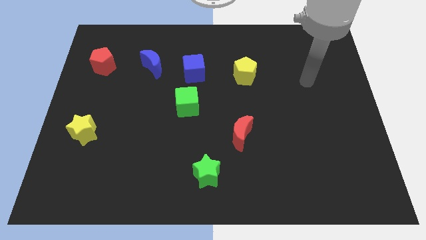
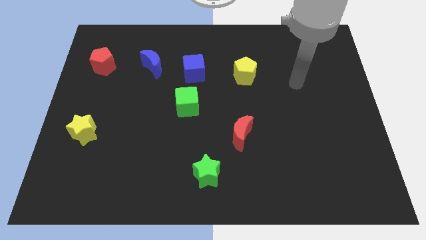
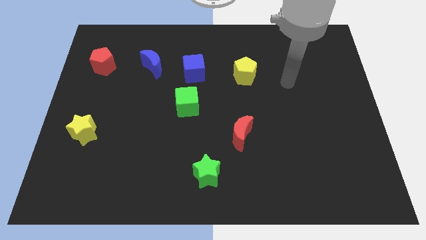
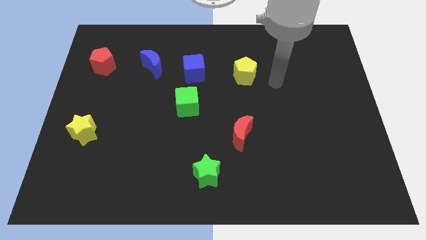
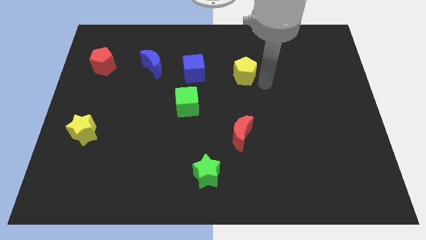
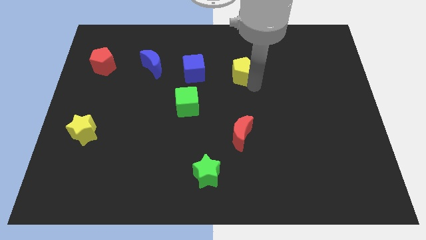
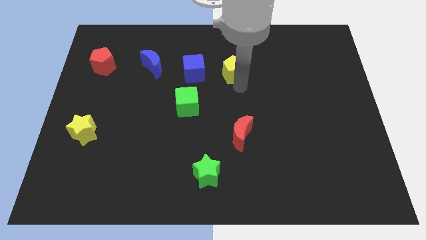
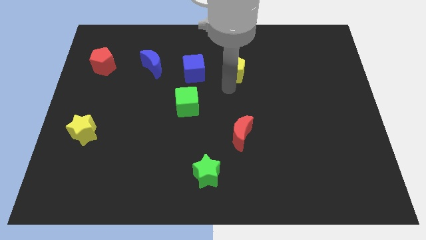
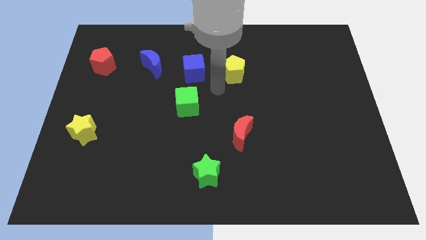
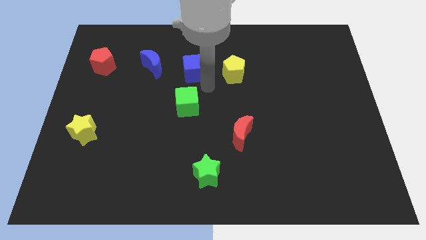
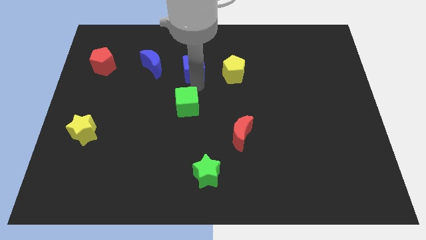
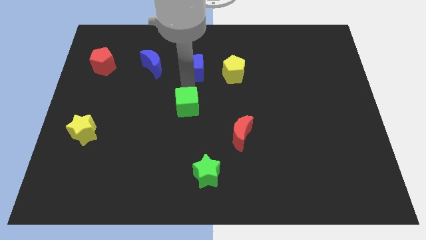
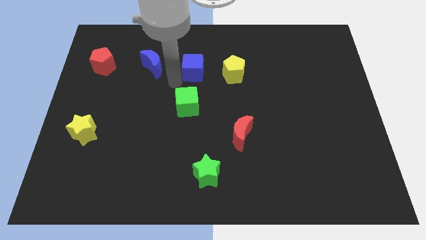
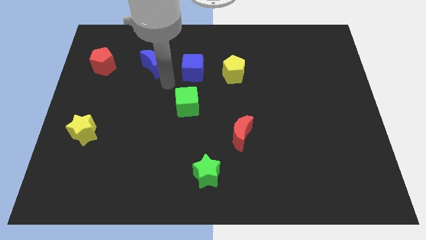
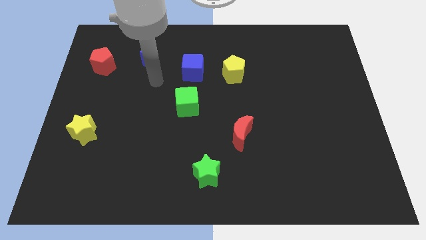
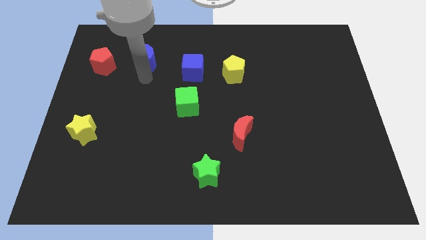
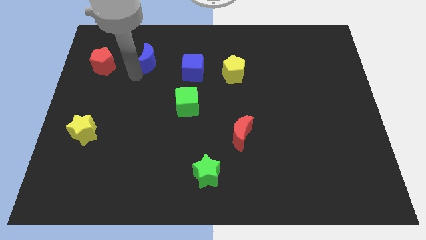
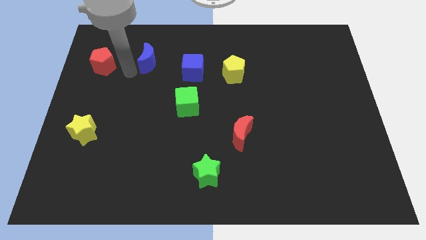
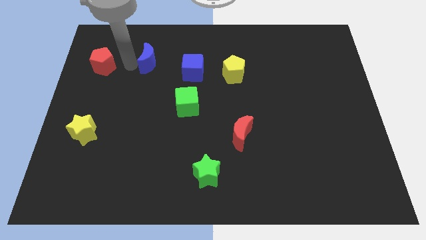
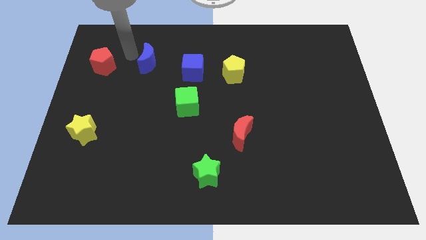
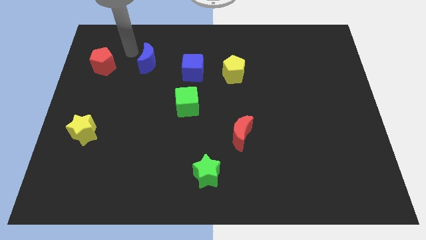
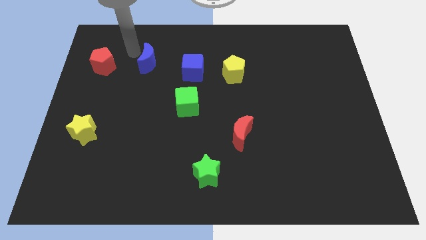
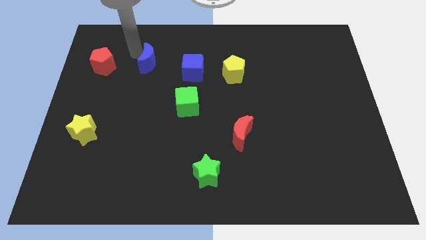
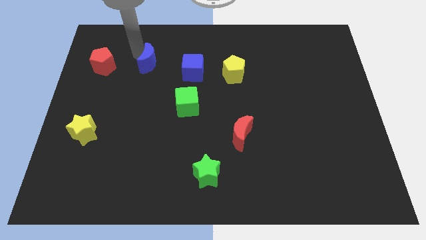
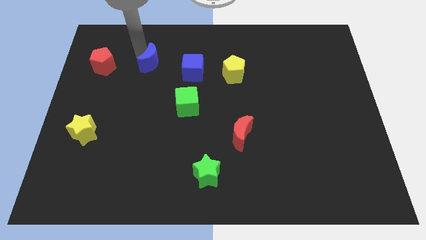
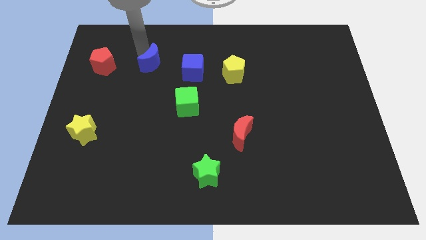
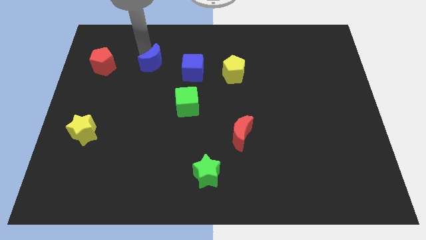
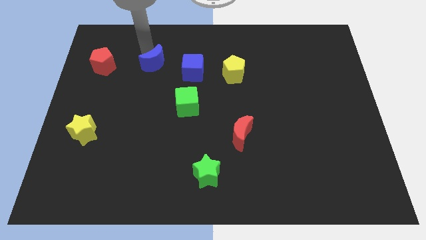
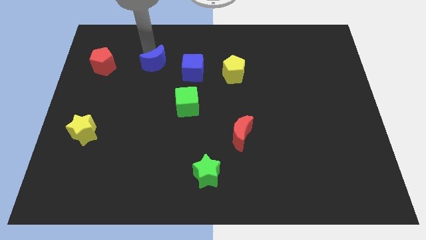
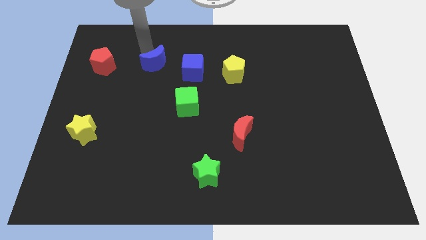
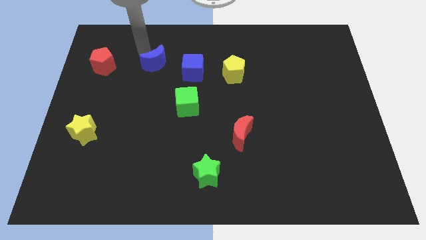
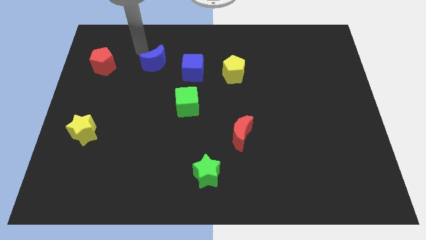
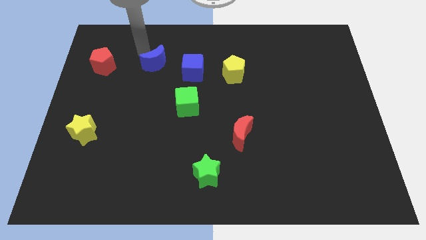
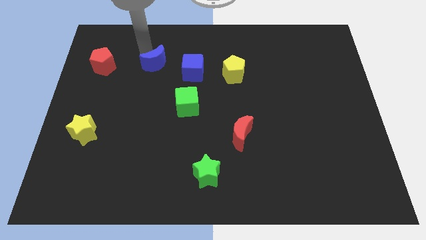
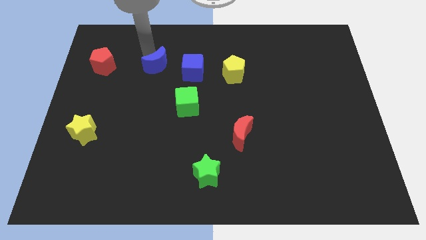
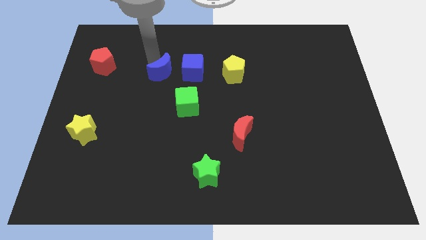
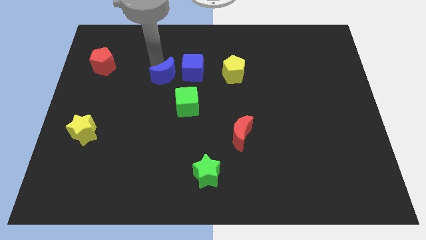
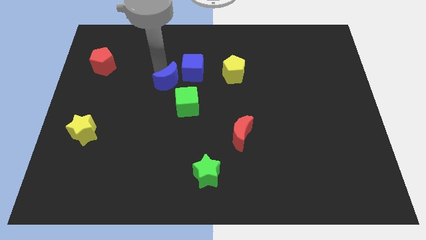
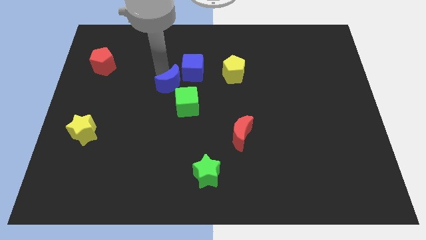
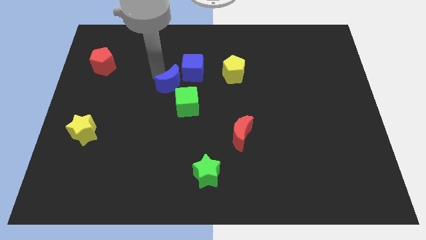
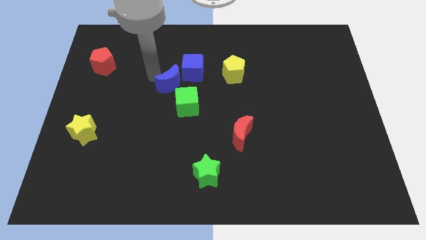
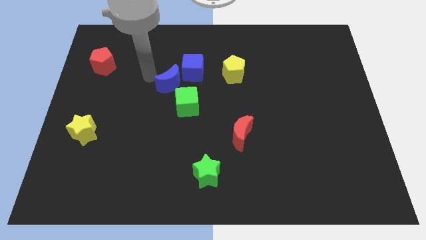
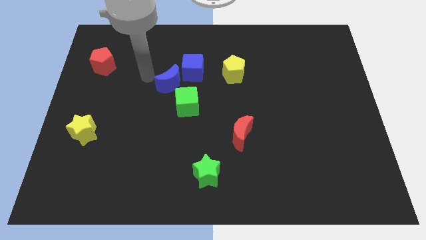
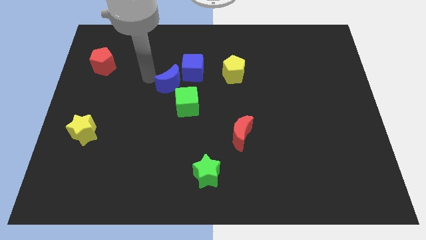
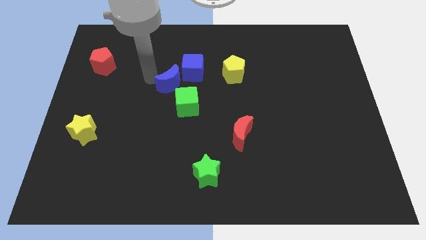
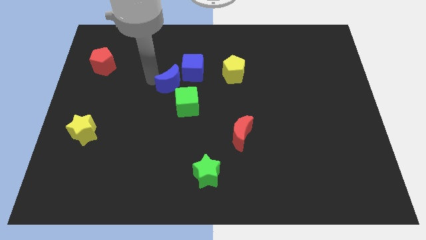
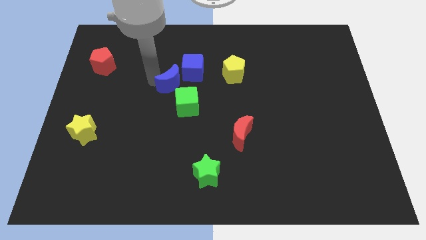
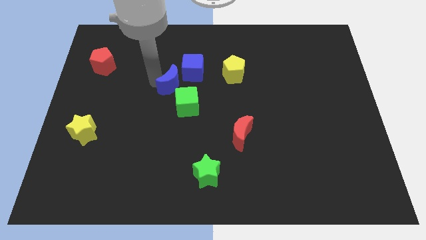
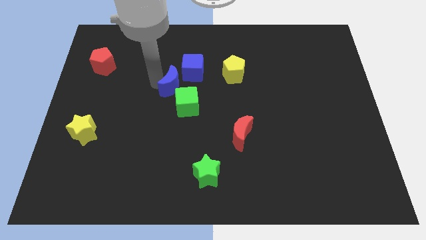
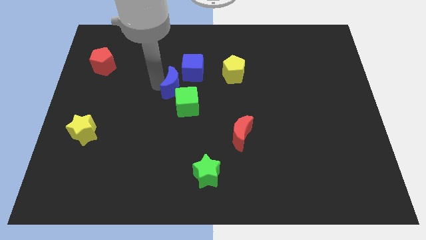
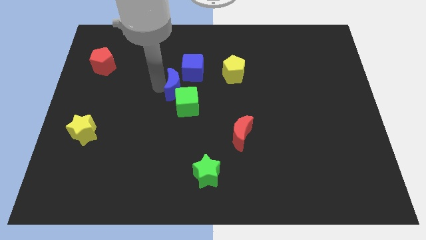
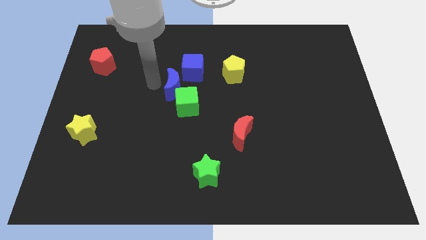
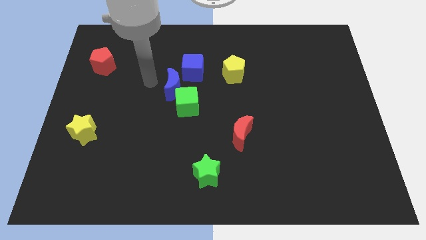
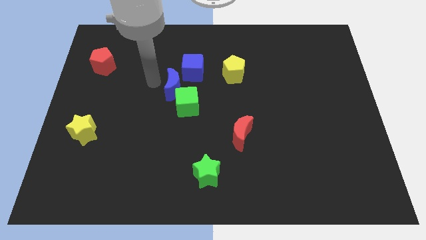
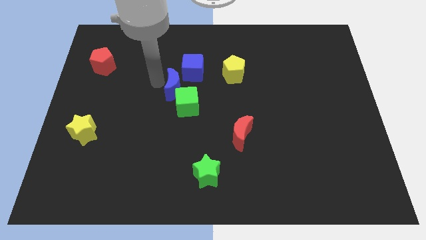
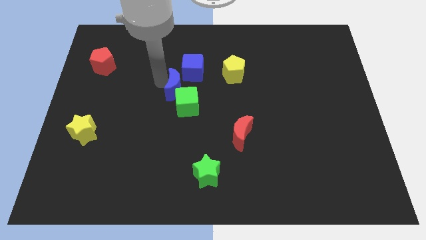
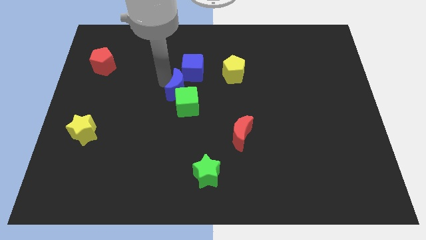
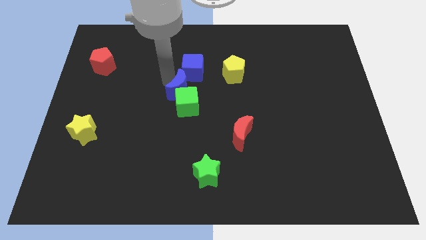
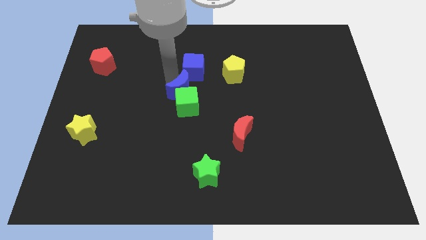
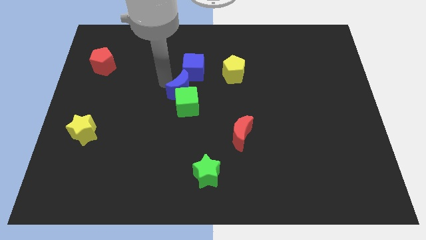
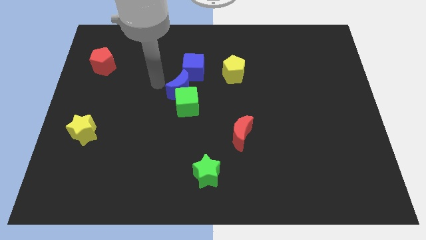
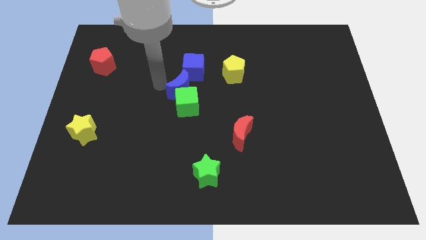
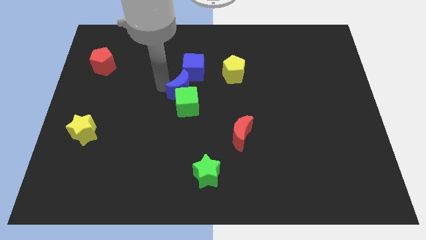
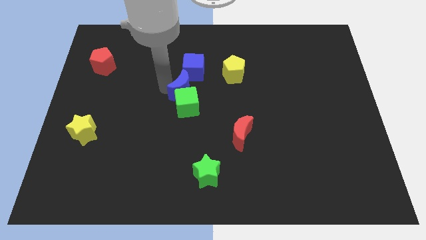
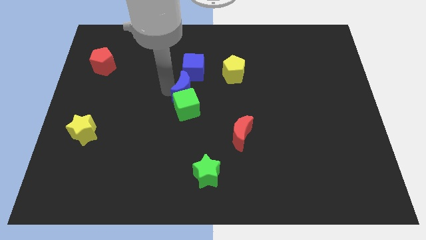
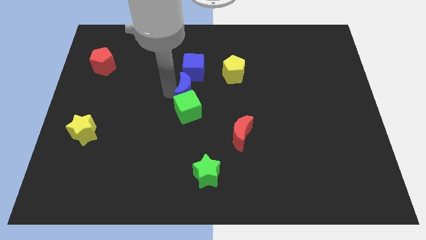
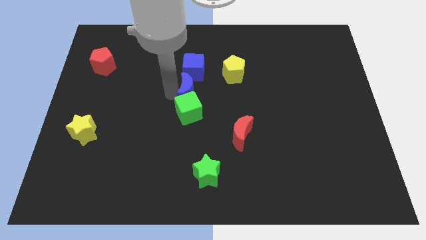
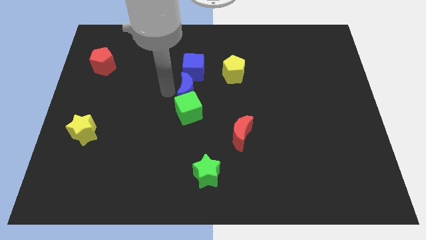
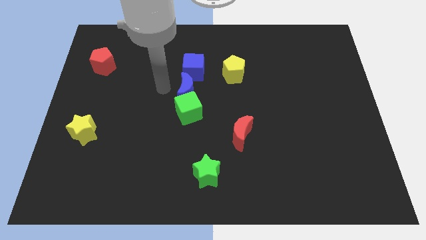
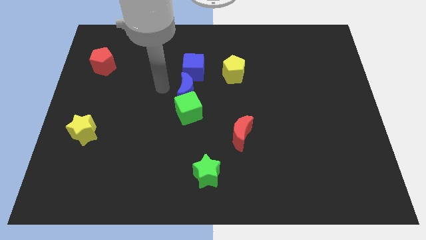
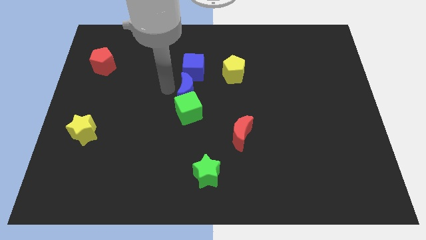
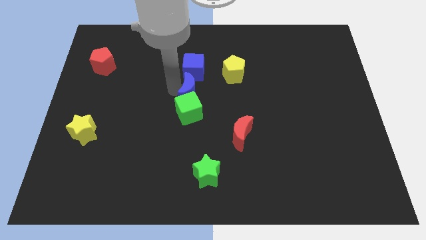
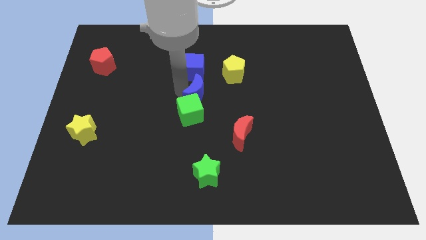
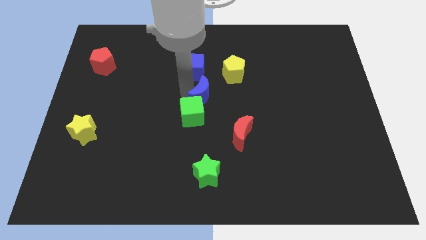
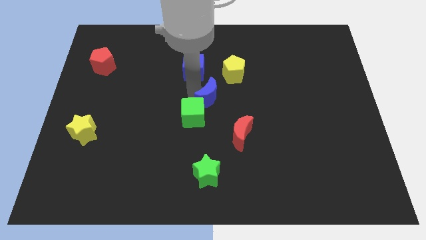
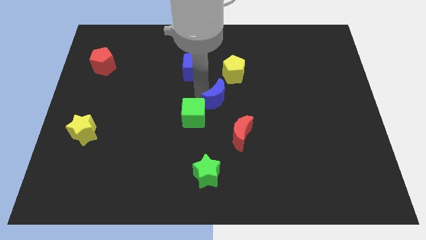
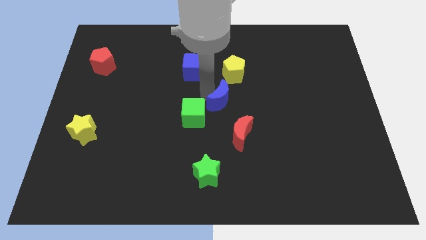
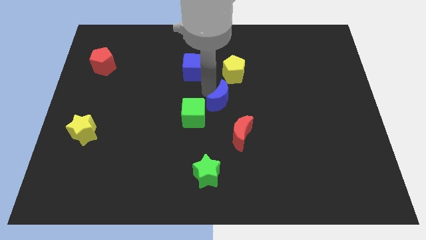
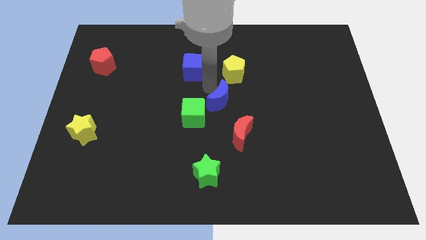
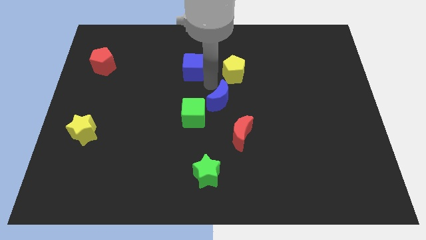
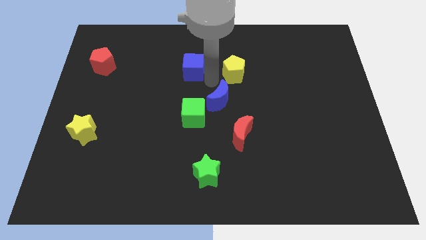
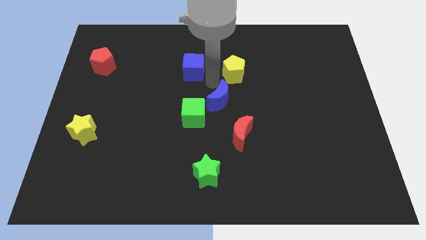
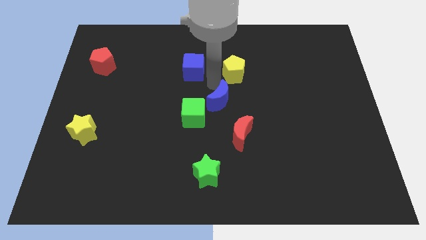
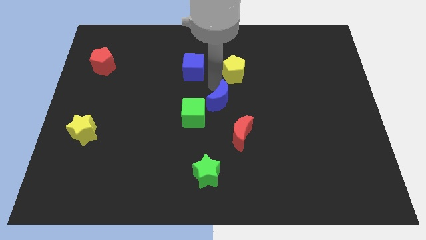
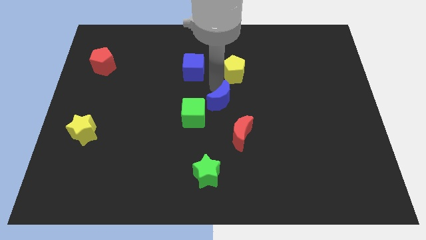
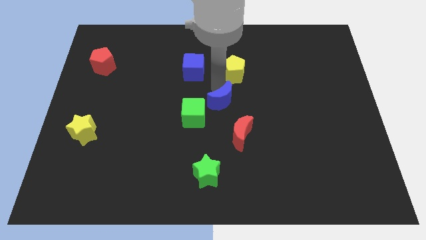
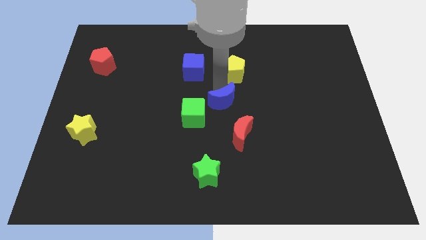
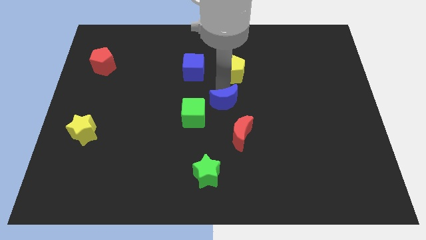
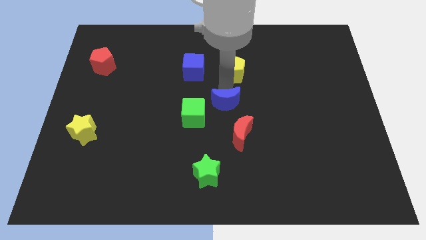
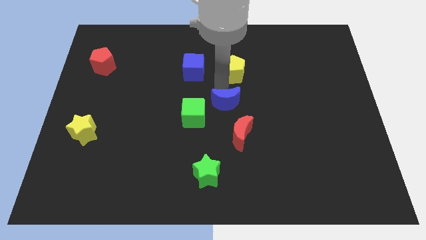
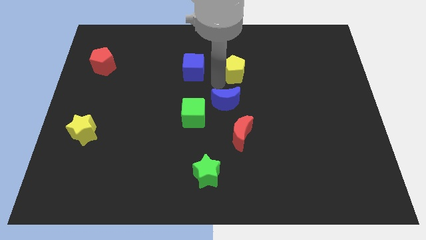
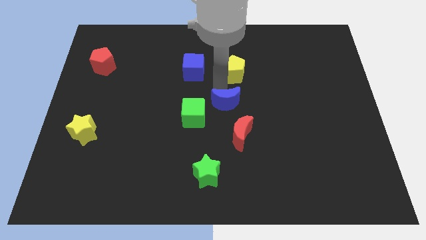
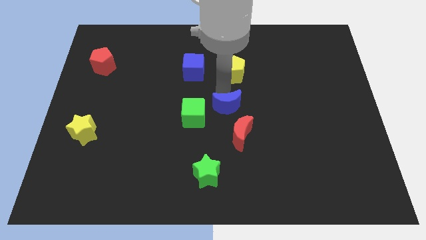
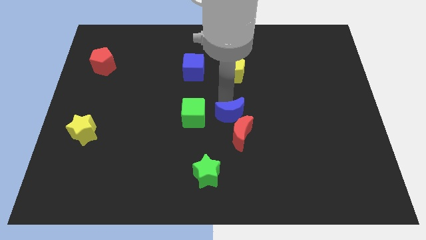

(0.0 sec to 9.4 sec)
push the blue moon to the red moon
